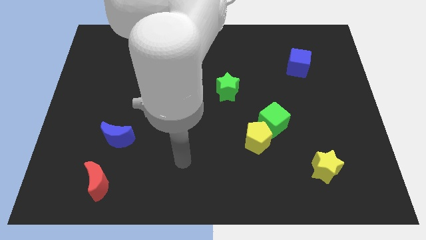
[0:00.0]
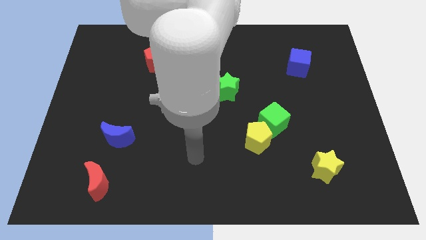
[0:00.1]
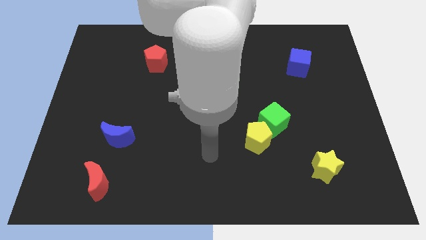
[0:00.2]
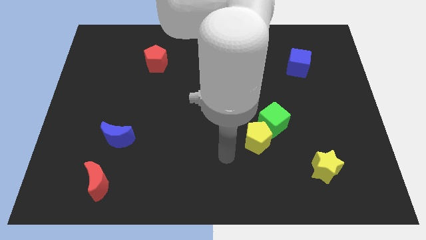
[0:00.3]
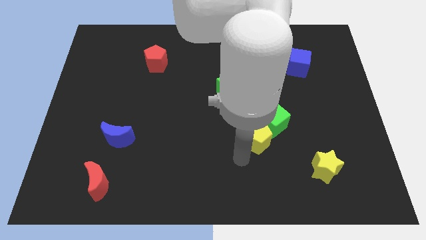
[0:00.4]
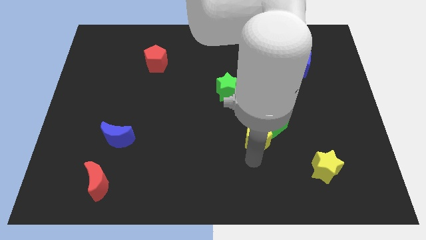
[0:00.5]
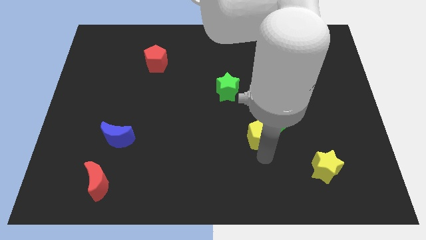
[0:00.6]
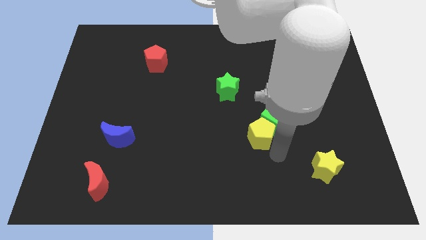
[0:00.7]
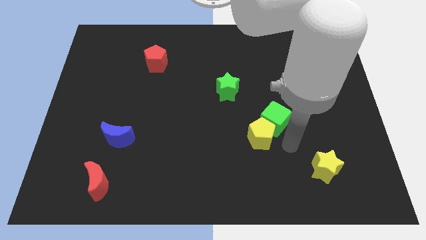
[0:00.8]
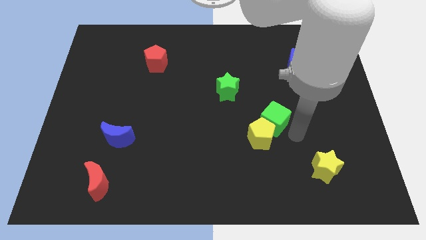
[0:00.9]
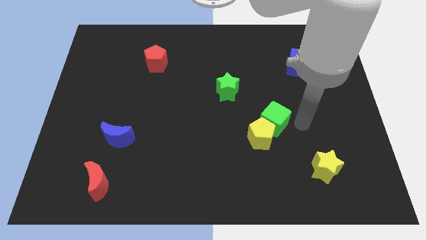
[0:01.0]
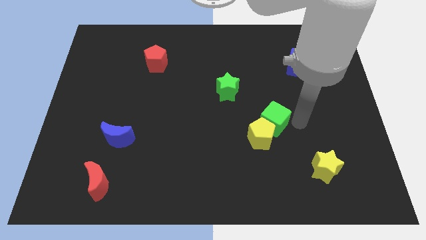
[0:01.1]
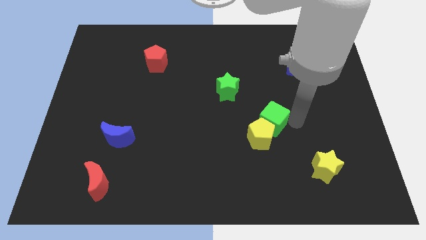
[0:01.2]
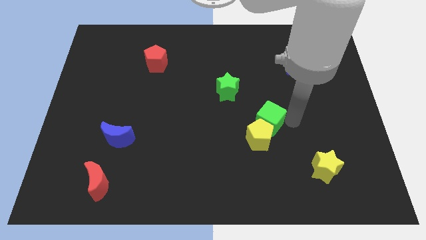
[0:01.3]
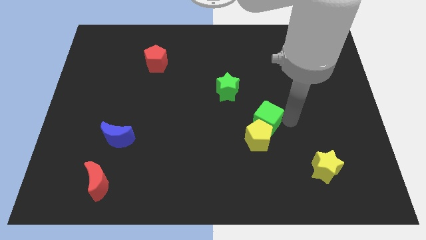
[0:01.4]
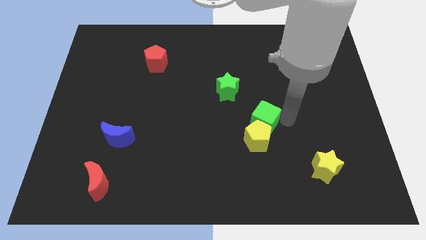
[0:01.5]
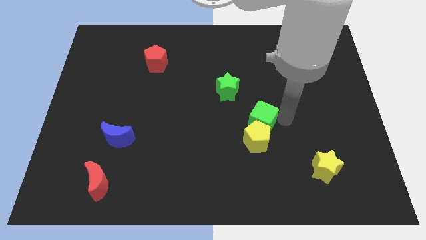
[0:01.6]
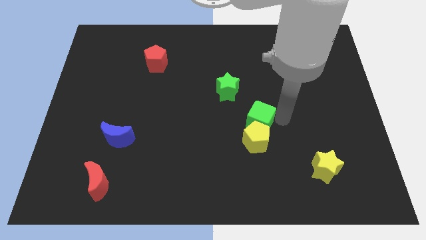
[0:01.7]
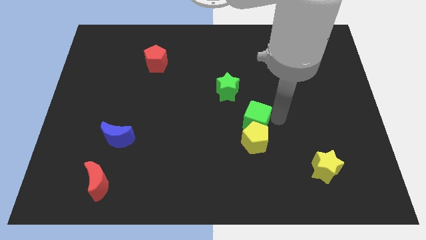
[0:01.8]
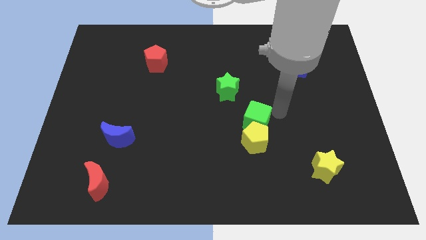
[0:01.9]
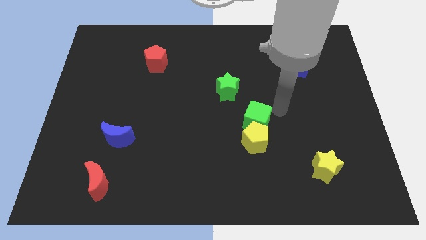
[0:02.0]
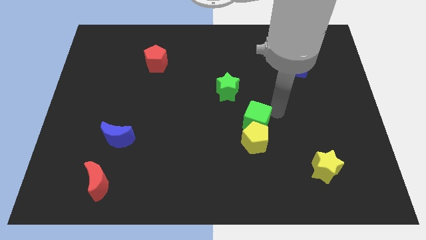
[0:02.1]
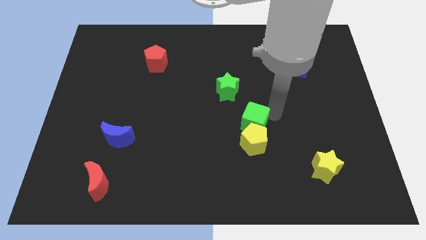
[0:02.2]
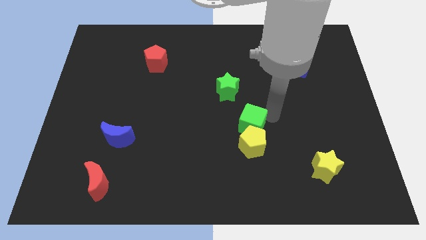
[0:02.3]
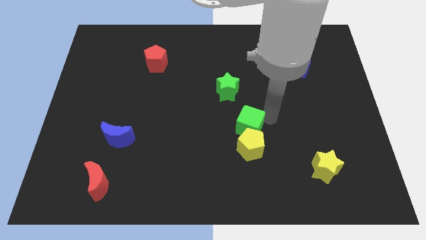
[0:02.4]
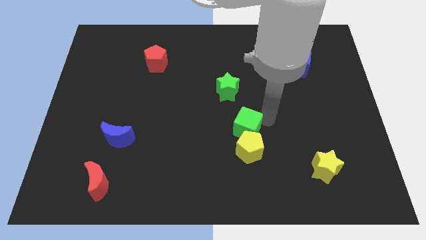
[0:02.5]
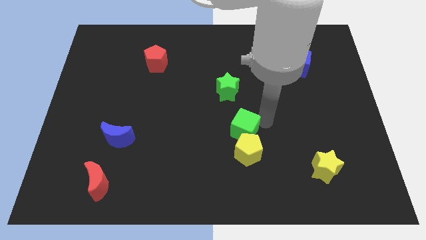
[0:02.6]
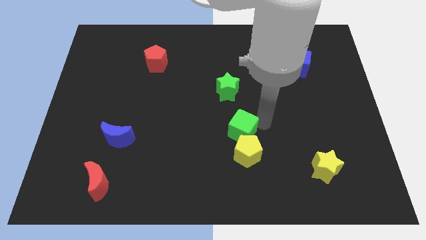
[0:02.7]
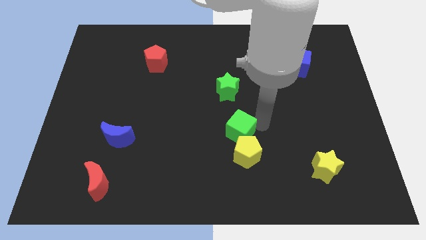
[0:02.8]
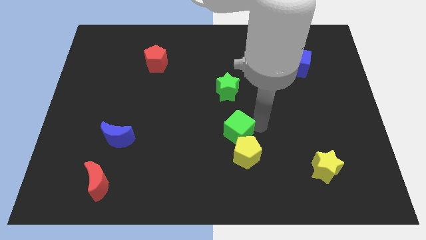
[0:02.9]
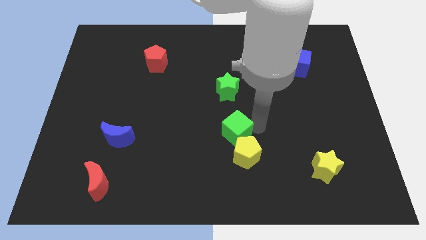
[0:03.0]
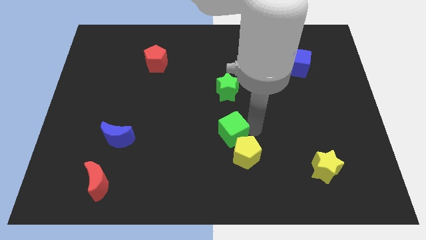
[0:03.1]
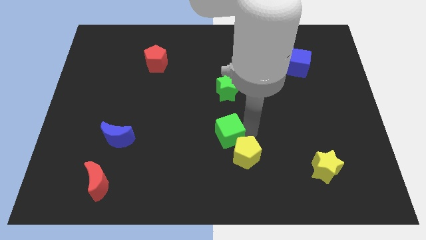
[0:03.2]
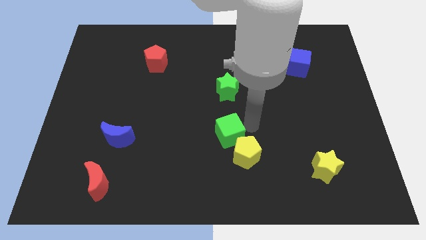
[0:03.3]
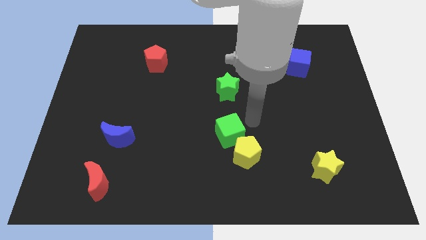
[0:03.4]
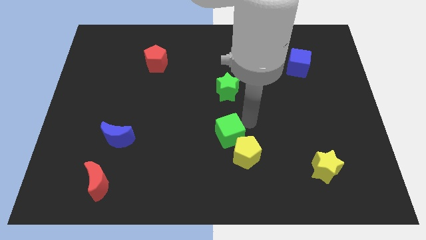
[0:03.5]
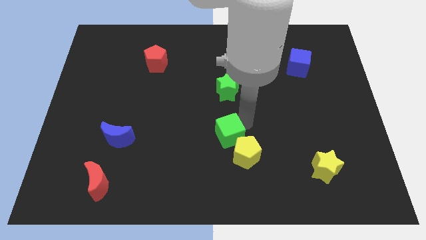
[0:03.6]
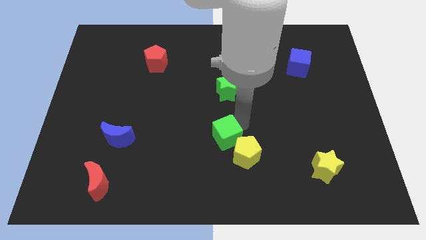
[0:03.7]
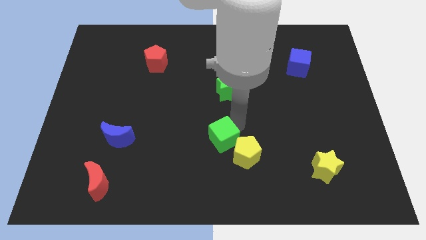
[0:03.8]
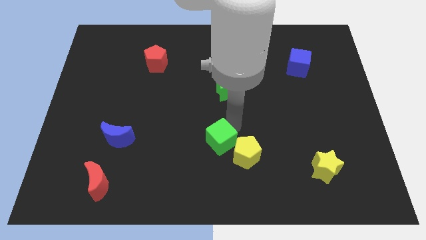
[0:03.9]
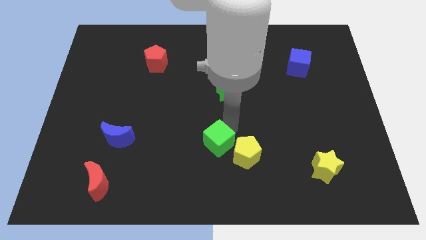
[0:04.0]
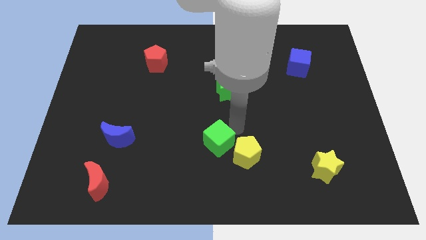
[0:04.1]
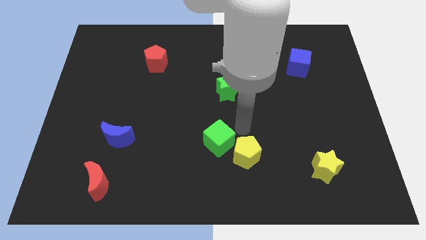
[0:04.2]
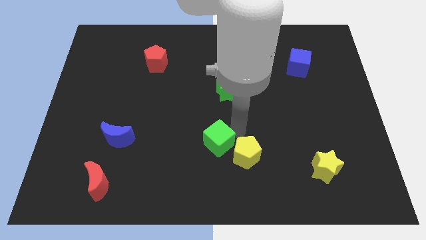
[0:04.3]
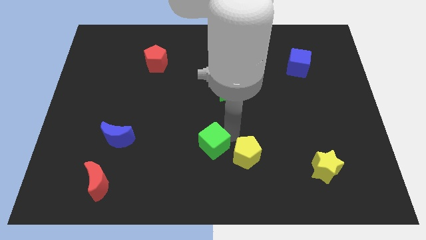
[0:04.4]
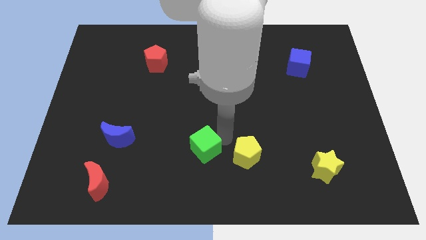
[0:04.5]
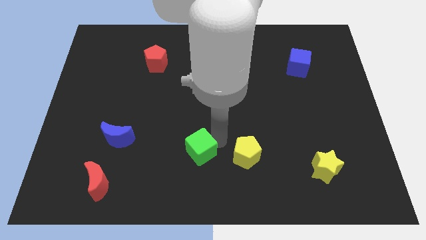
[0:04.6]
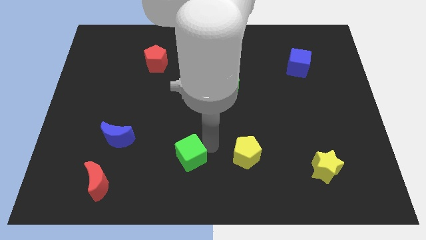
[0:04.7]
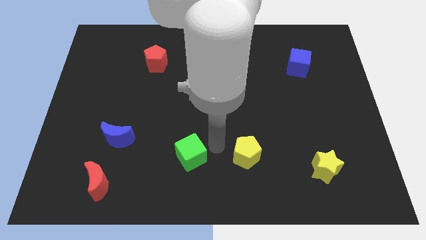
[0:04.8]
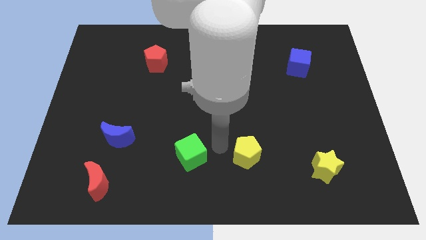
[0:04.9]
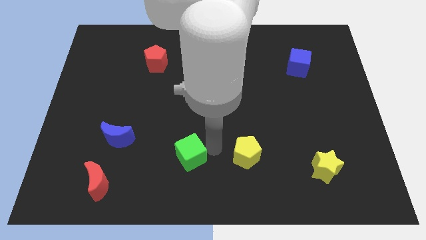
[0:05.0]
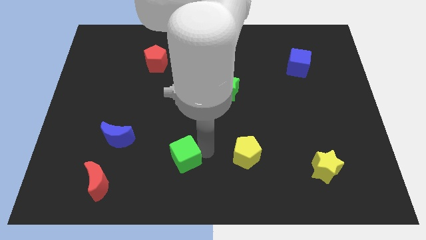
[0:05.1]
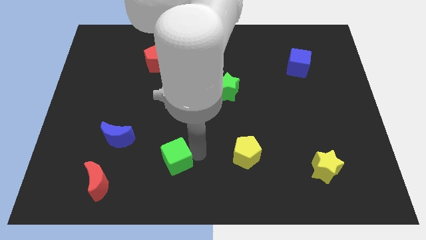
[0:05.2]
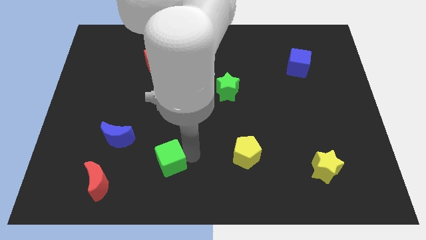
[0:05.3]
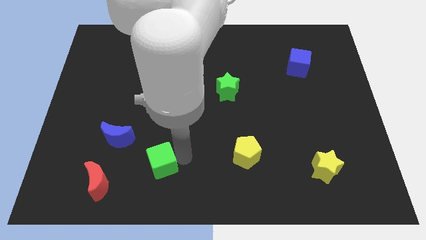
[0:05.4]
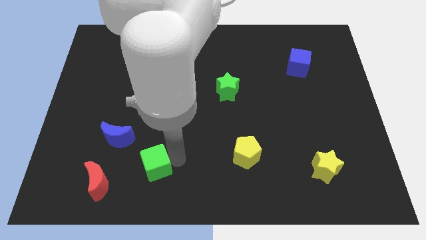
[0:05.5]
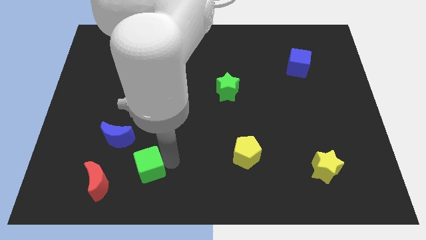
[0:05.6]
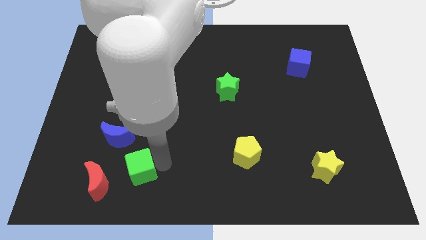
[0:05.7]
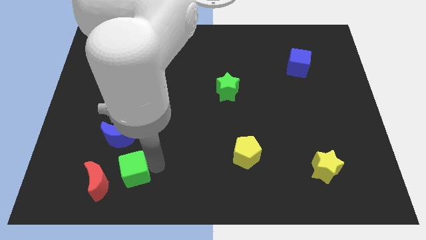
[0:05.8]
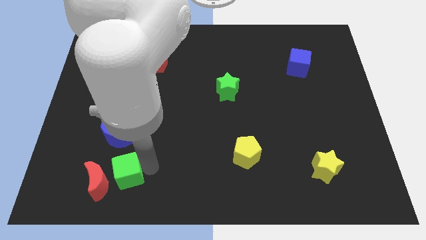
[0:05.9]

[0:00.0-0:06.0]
move the green cube close to the red moon

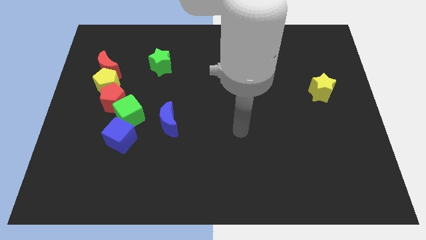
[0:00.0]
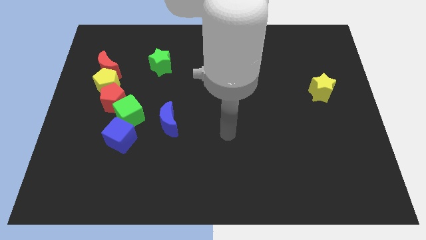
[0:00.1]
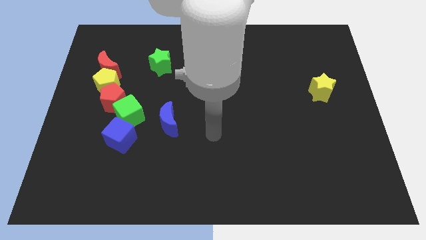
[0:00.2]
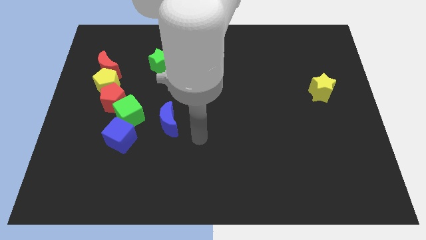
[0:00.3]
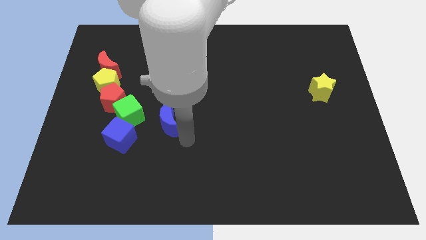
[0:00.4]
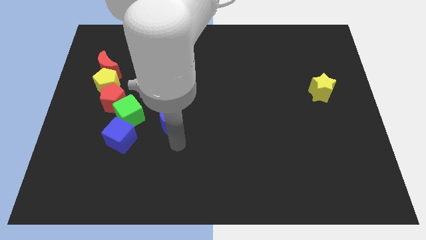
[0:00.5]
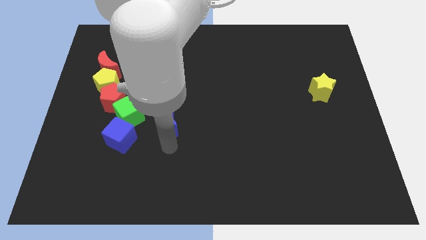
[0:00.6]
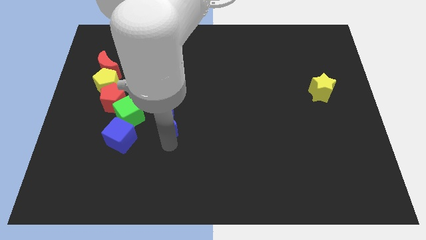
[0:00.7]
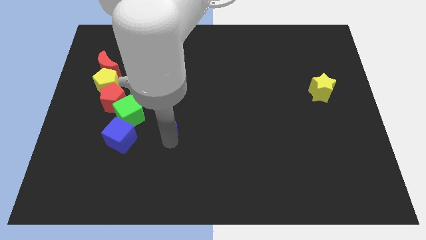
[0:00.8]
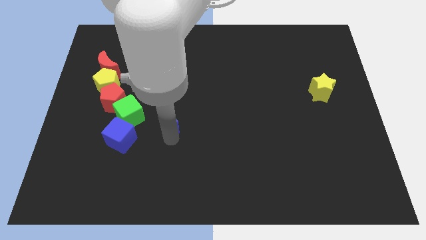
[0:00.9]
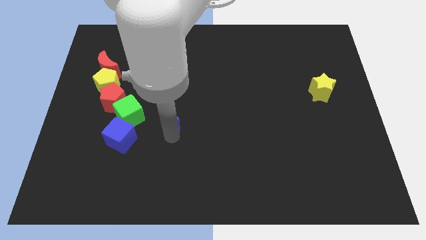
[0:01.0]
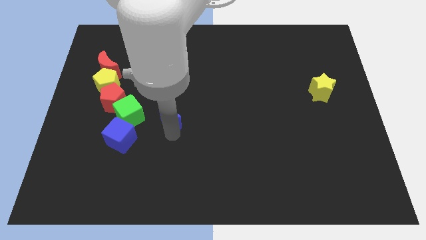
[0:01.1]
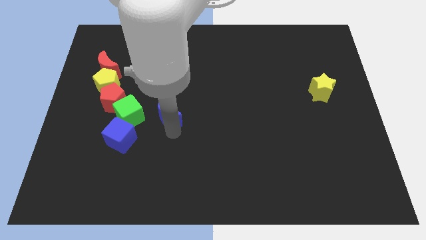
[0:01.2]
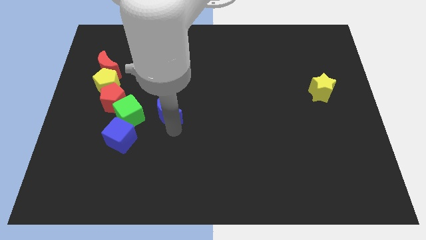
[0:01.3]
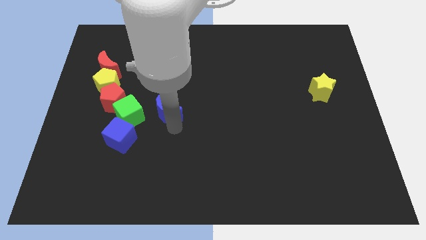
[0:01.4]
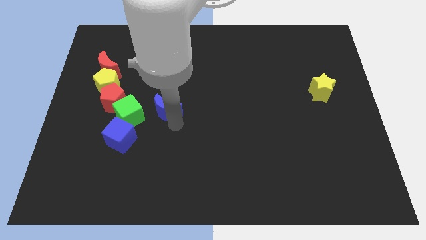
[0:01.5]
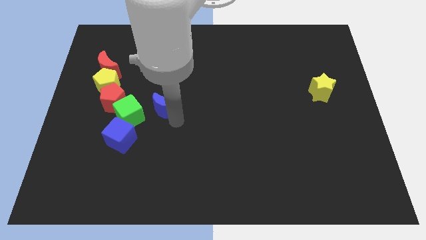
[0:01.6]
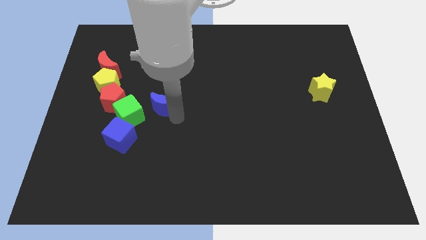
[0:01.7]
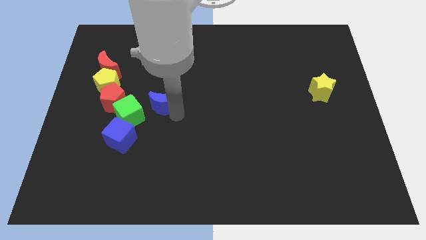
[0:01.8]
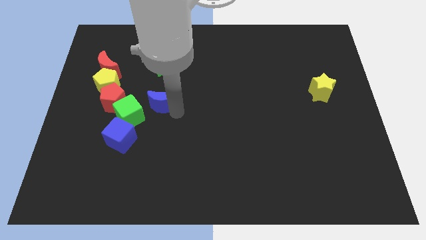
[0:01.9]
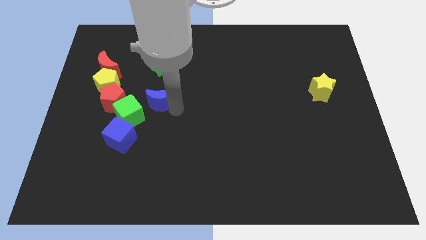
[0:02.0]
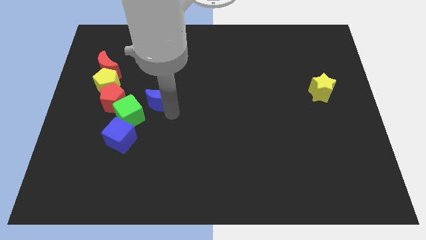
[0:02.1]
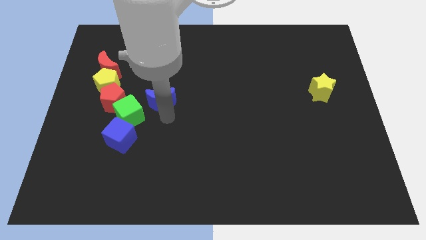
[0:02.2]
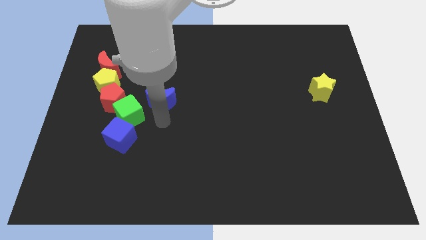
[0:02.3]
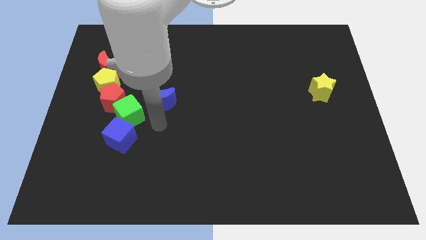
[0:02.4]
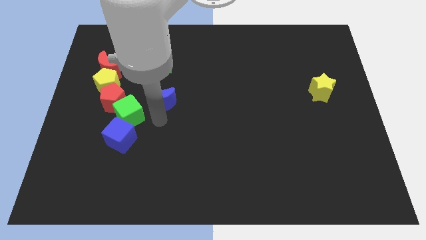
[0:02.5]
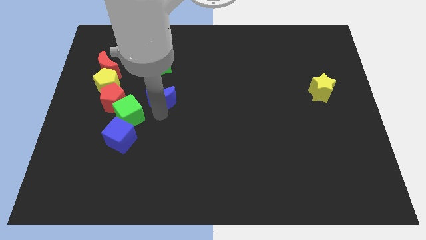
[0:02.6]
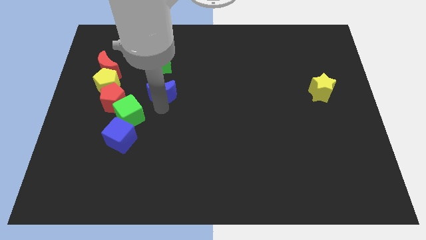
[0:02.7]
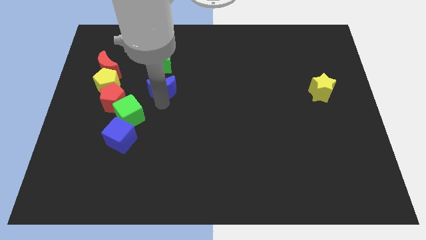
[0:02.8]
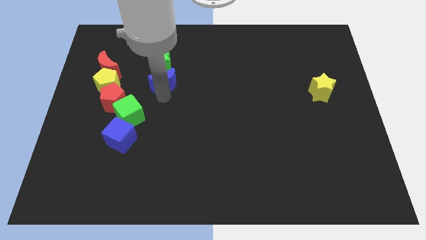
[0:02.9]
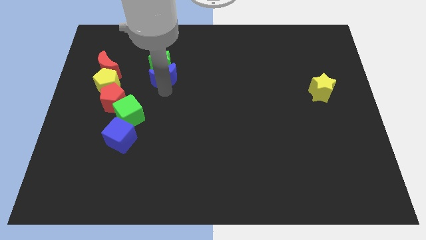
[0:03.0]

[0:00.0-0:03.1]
put the blue moon towards the green star
